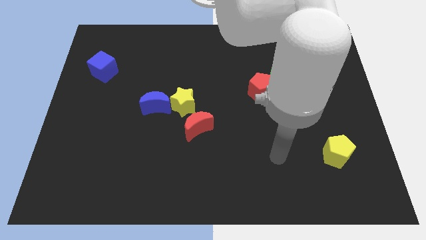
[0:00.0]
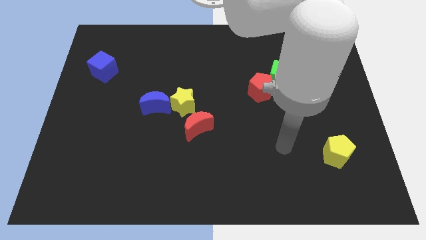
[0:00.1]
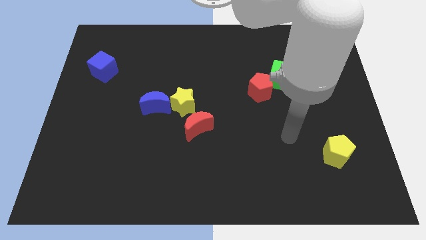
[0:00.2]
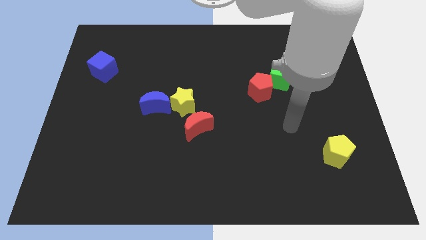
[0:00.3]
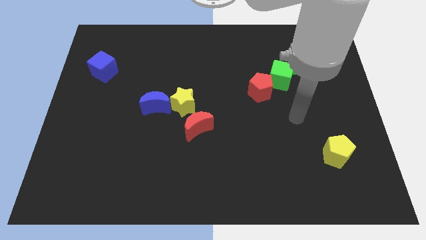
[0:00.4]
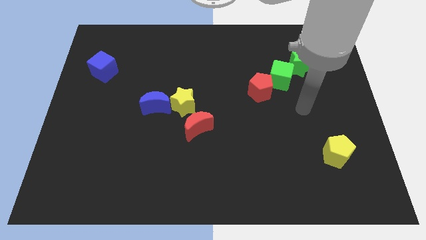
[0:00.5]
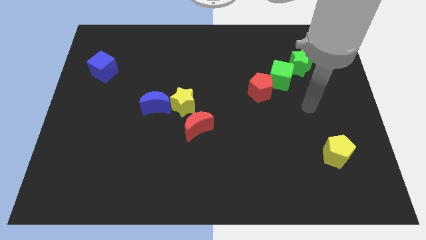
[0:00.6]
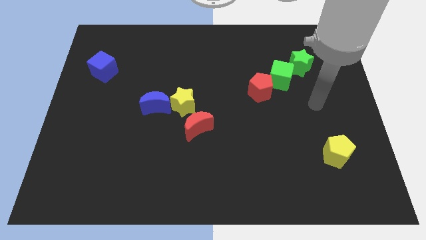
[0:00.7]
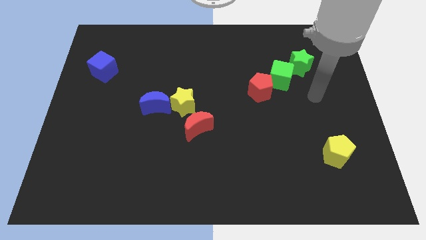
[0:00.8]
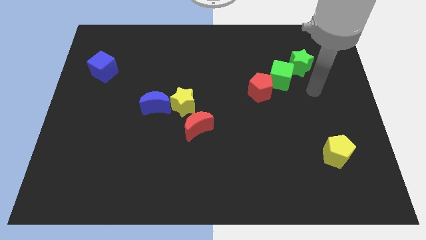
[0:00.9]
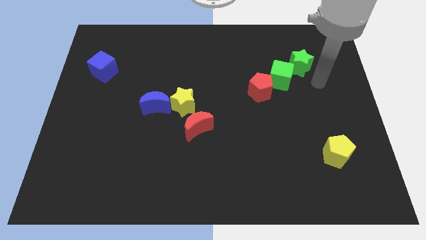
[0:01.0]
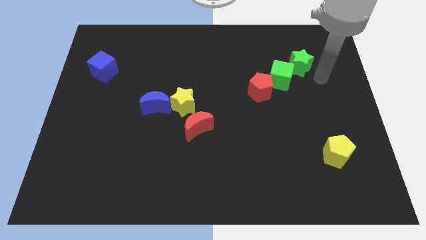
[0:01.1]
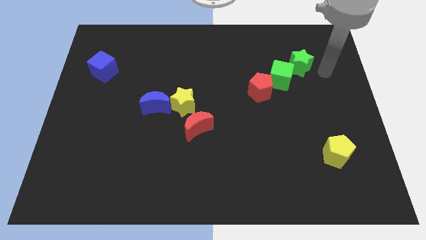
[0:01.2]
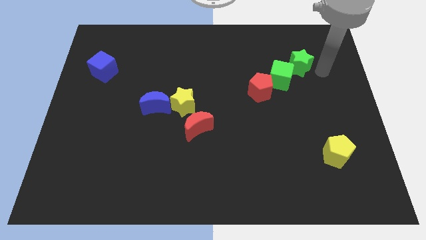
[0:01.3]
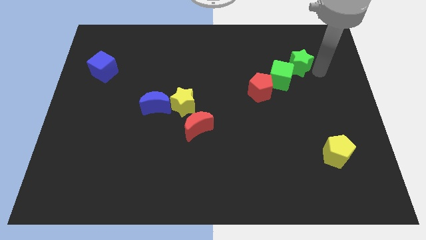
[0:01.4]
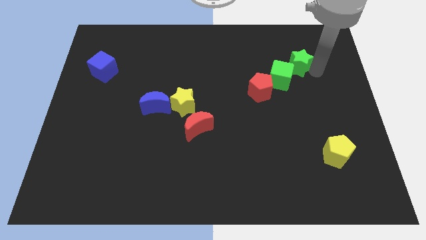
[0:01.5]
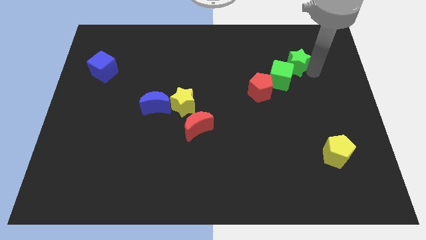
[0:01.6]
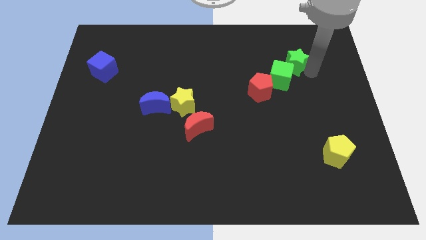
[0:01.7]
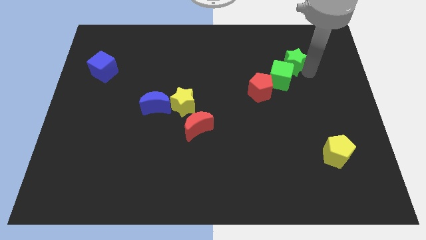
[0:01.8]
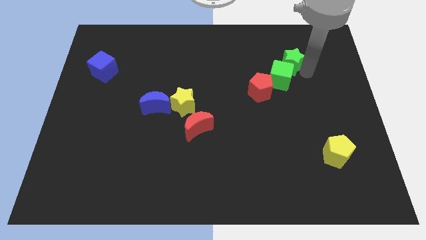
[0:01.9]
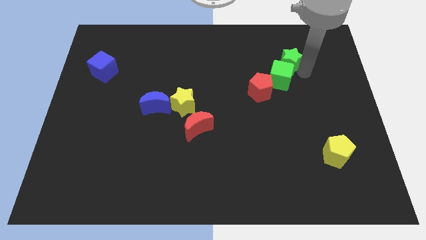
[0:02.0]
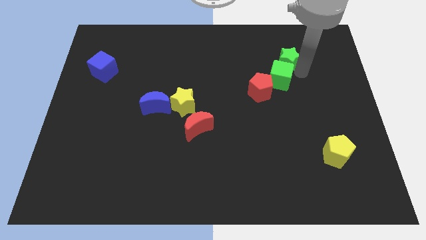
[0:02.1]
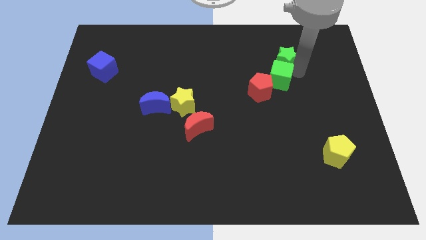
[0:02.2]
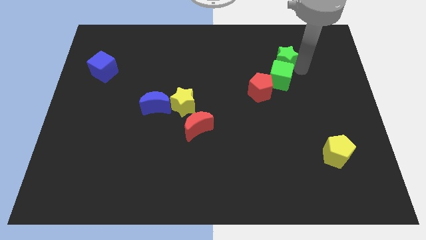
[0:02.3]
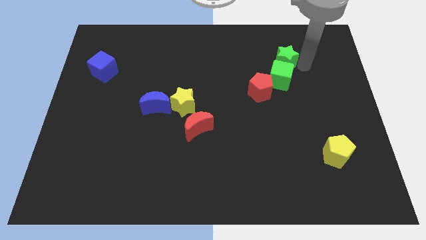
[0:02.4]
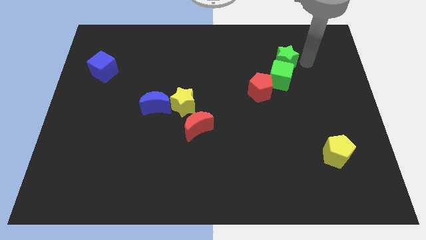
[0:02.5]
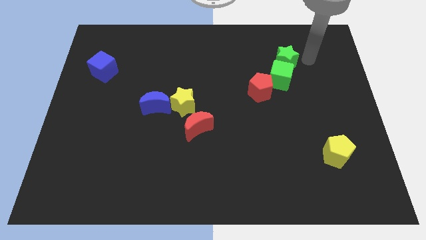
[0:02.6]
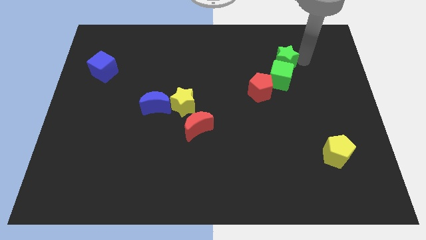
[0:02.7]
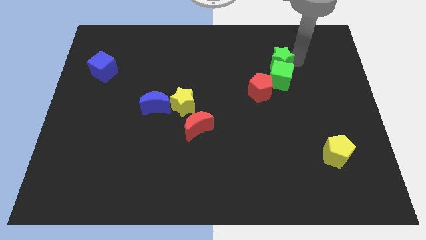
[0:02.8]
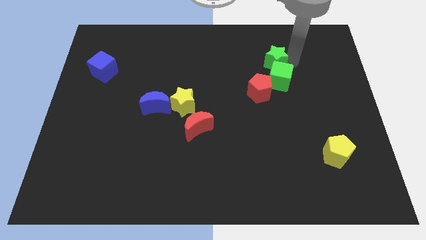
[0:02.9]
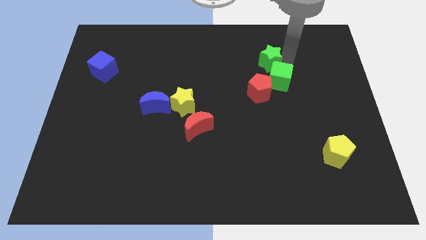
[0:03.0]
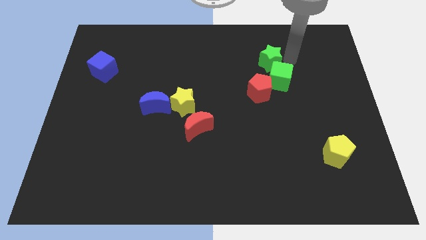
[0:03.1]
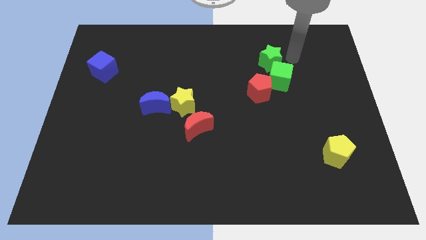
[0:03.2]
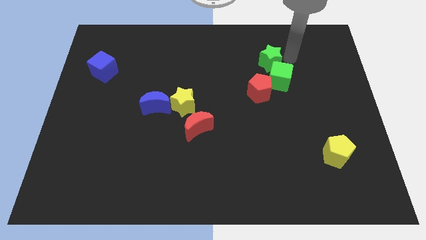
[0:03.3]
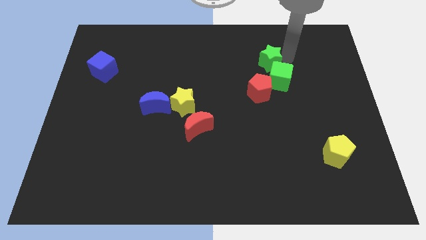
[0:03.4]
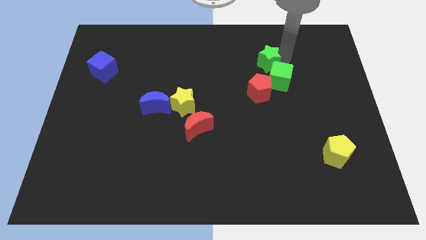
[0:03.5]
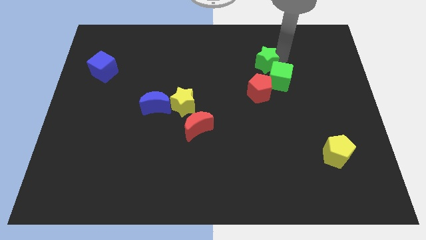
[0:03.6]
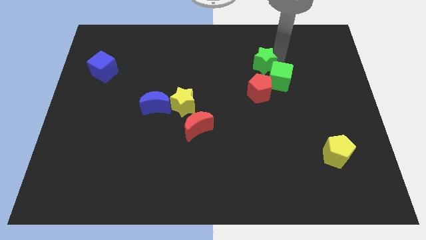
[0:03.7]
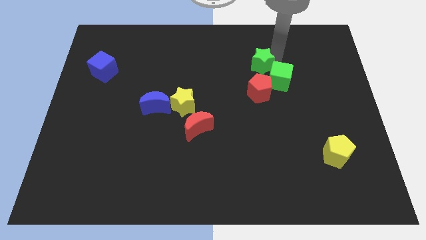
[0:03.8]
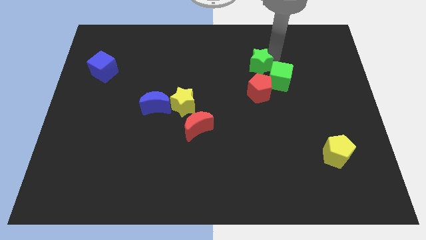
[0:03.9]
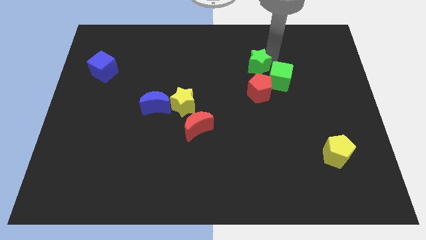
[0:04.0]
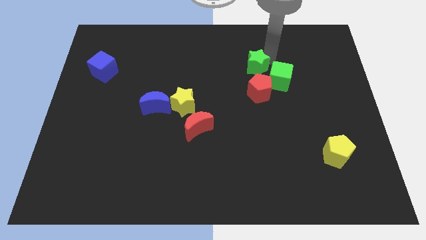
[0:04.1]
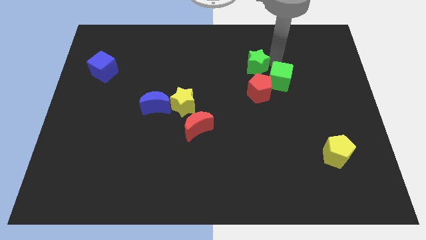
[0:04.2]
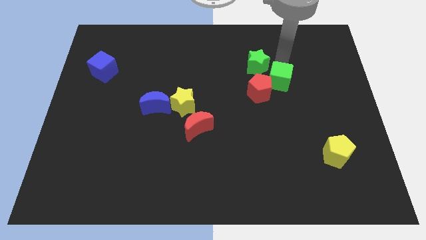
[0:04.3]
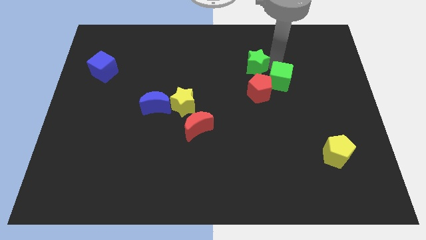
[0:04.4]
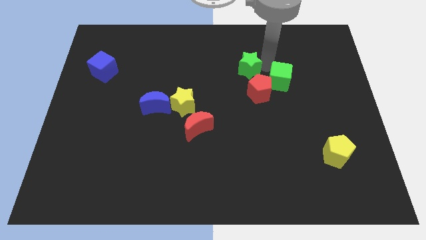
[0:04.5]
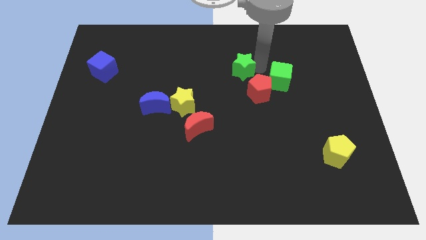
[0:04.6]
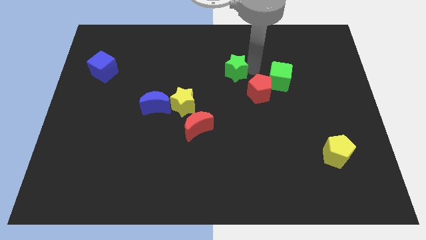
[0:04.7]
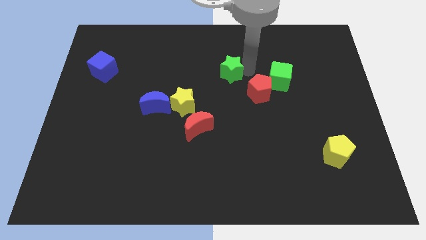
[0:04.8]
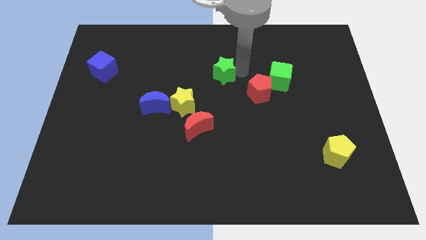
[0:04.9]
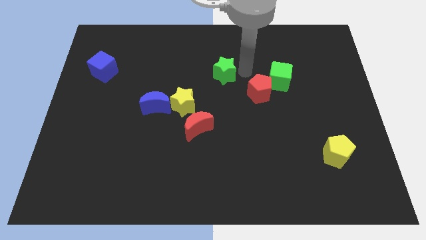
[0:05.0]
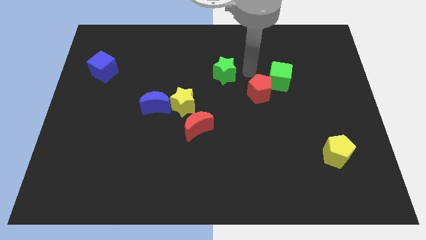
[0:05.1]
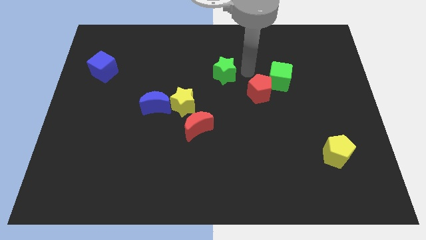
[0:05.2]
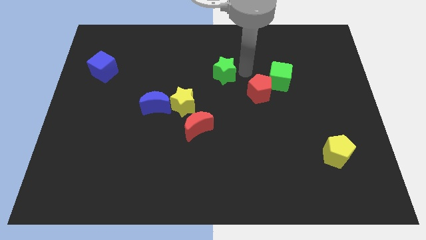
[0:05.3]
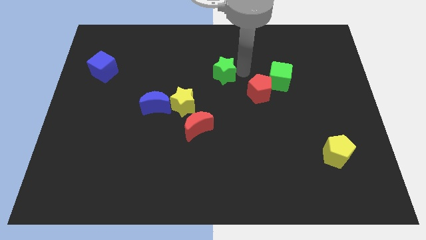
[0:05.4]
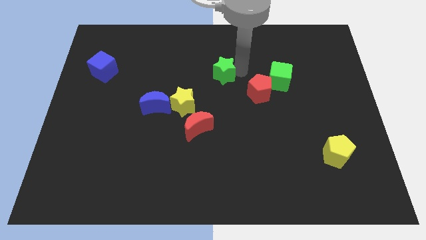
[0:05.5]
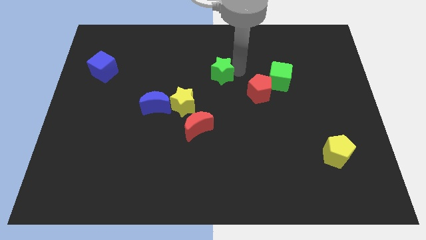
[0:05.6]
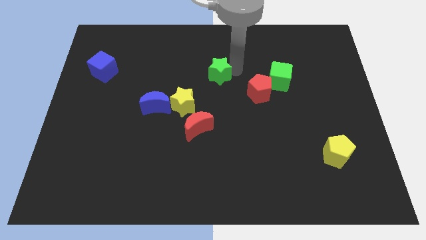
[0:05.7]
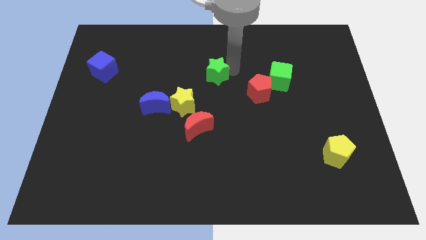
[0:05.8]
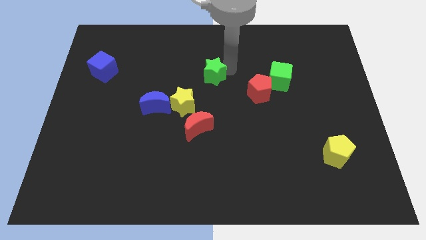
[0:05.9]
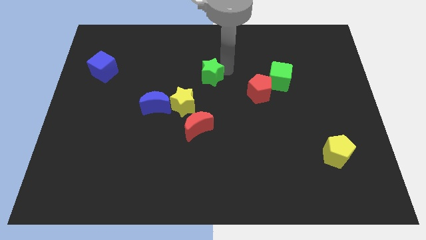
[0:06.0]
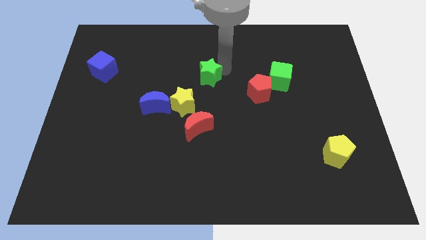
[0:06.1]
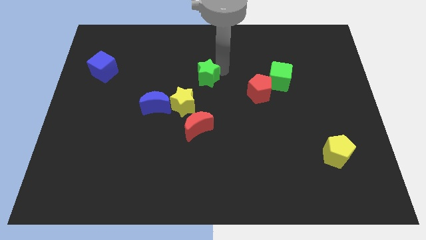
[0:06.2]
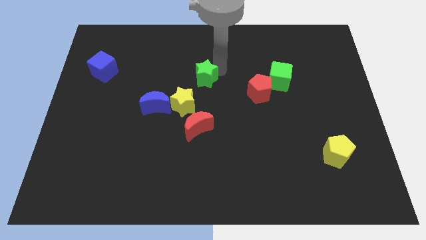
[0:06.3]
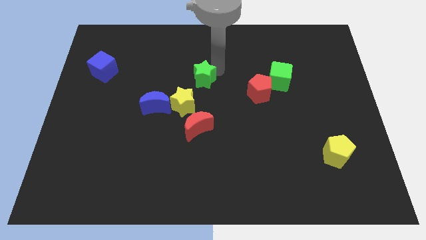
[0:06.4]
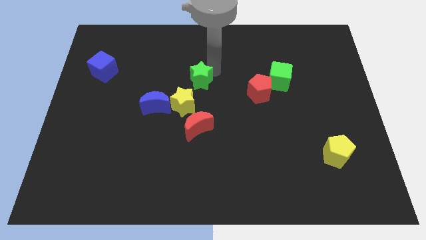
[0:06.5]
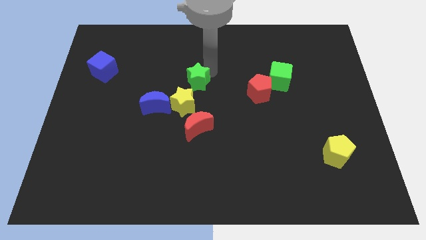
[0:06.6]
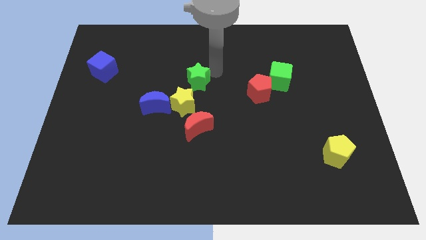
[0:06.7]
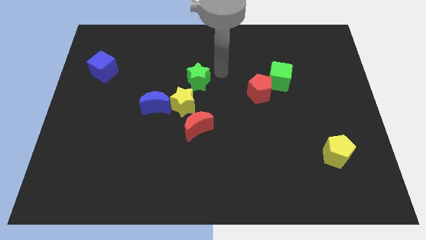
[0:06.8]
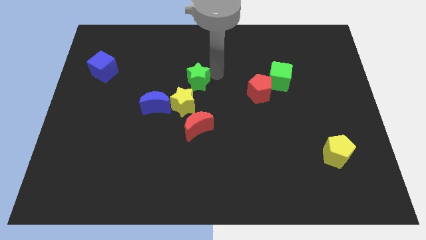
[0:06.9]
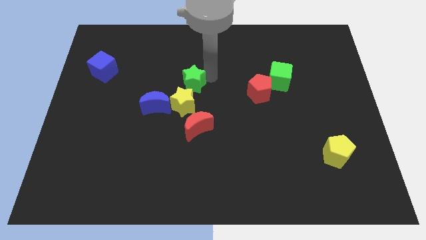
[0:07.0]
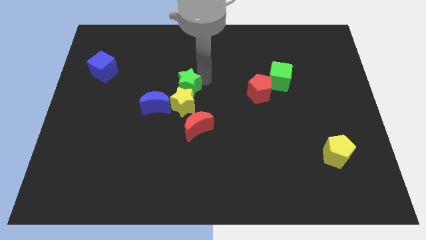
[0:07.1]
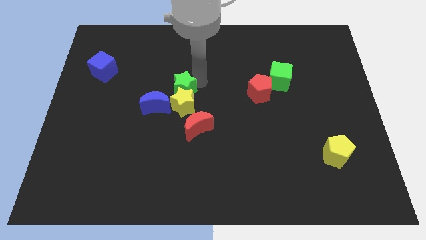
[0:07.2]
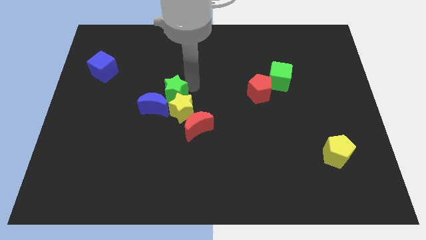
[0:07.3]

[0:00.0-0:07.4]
put the green star next to the blue moon
